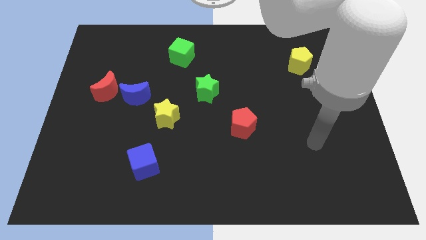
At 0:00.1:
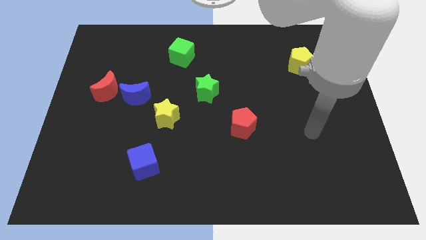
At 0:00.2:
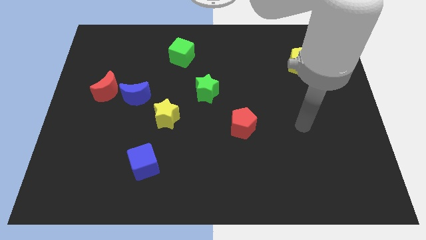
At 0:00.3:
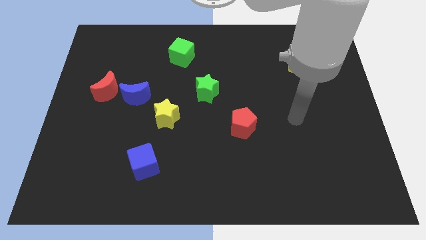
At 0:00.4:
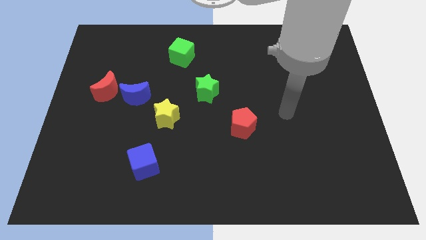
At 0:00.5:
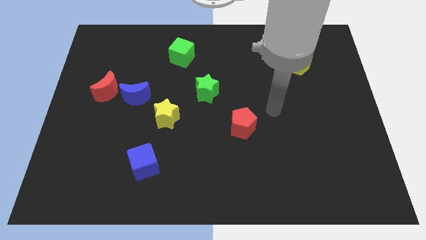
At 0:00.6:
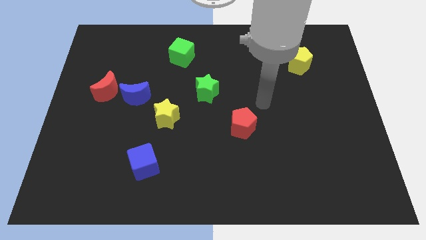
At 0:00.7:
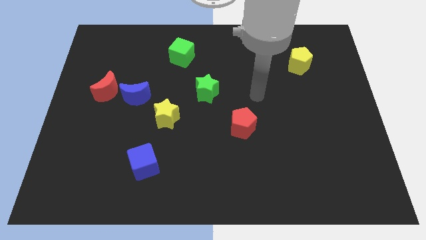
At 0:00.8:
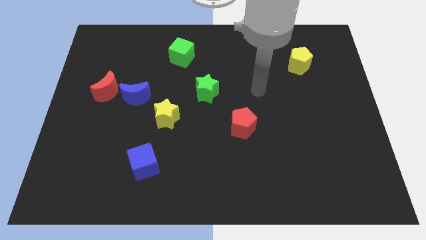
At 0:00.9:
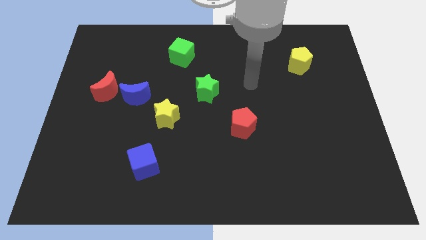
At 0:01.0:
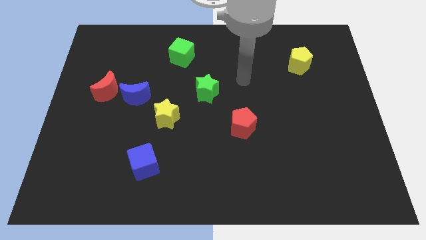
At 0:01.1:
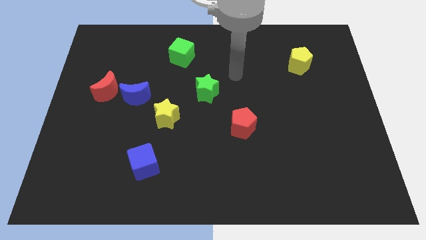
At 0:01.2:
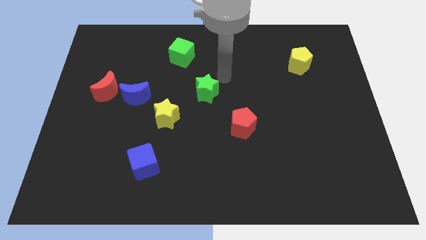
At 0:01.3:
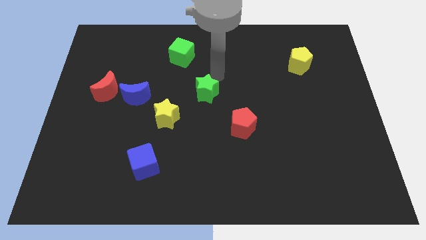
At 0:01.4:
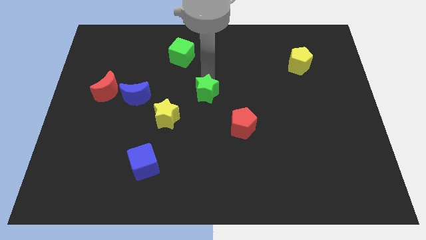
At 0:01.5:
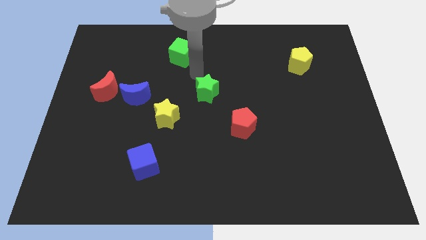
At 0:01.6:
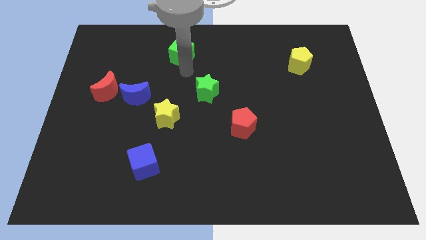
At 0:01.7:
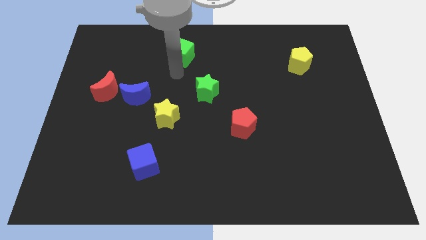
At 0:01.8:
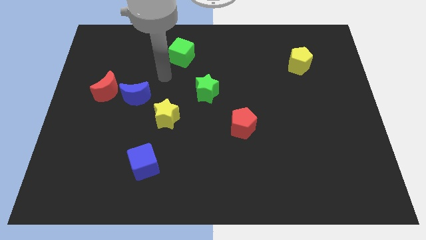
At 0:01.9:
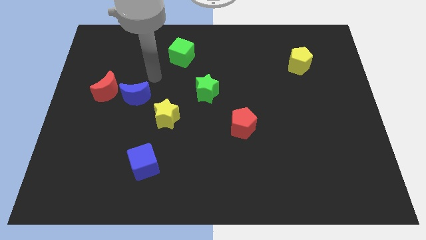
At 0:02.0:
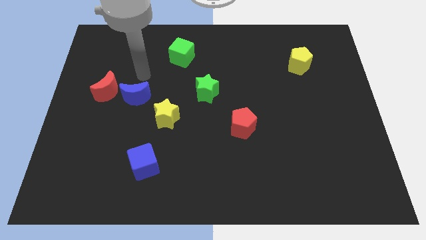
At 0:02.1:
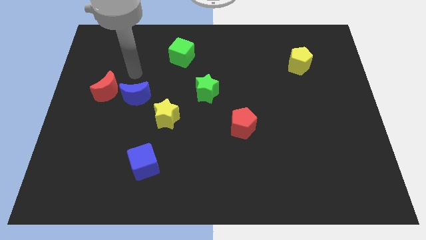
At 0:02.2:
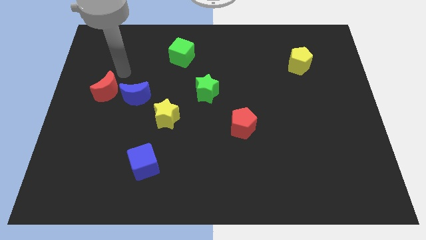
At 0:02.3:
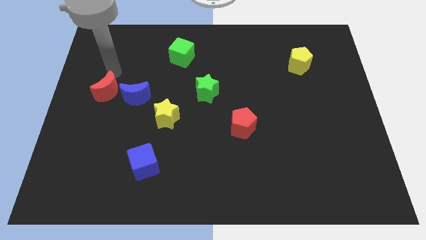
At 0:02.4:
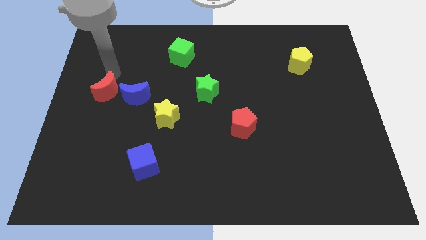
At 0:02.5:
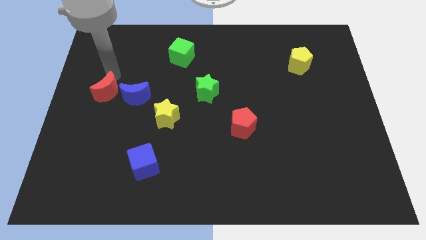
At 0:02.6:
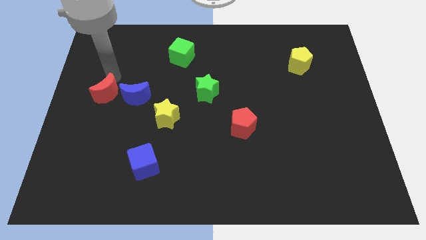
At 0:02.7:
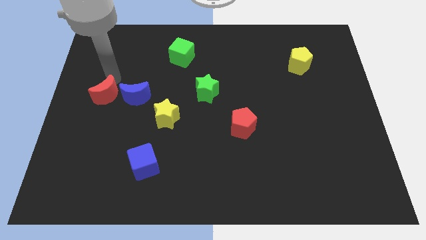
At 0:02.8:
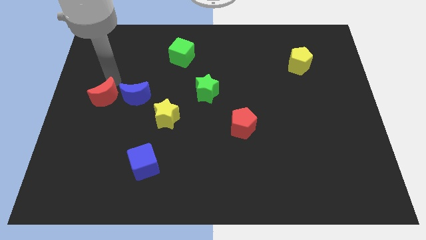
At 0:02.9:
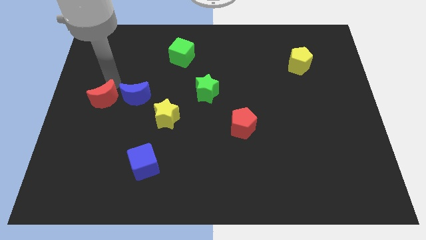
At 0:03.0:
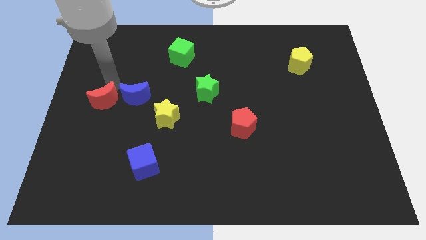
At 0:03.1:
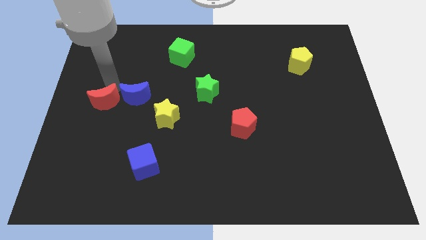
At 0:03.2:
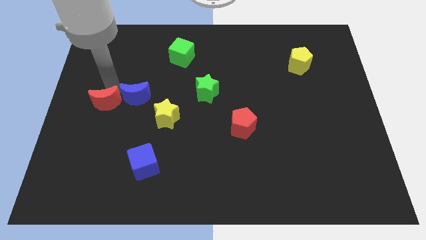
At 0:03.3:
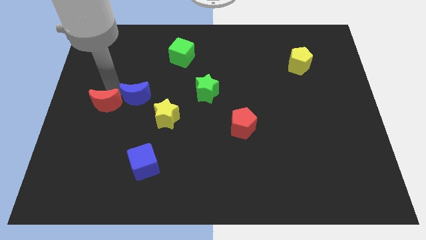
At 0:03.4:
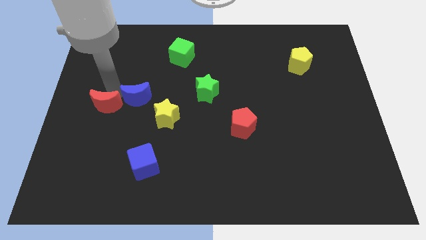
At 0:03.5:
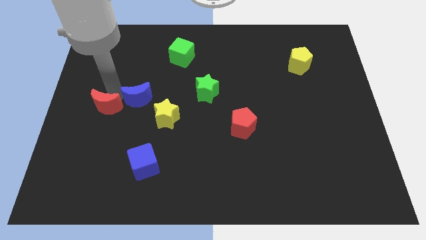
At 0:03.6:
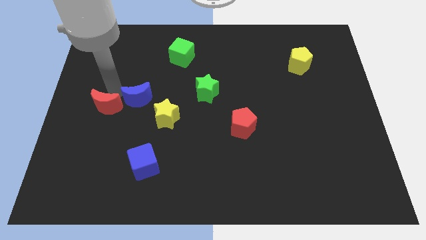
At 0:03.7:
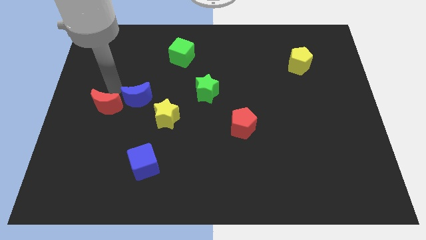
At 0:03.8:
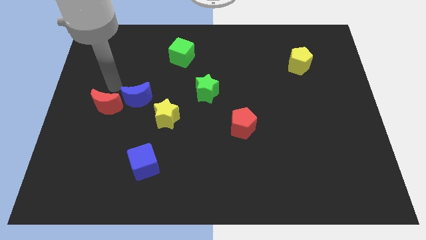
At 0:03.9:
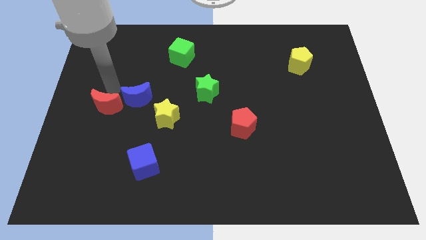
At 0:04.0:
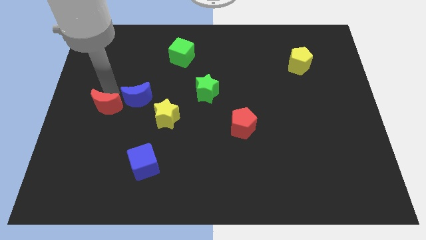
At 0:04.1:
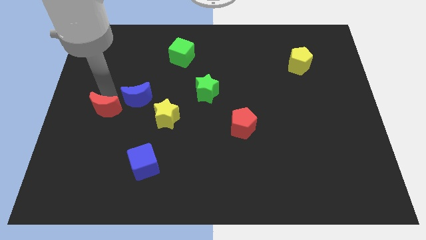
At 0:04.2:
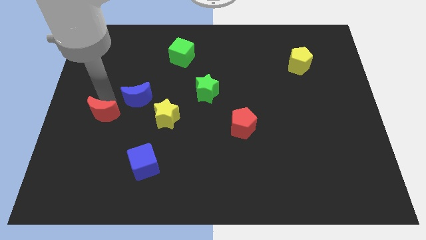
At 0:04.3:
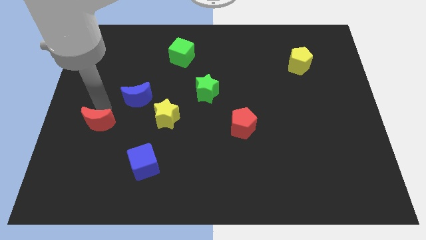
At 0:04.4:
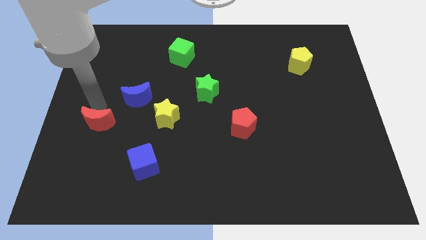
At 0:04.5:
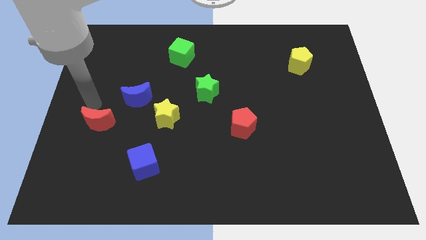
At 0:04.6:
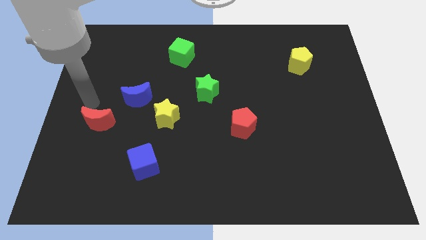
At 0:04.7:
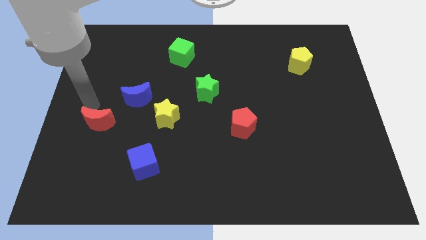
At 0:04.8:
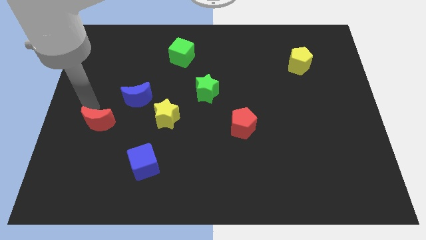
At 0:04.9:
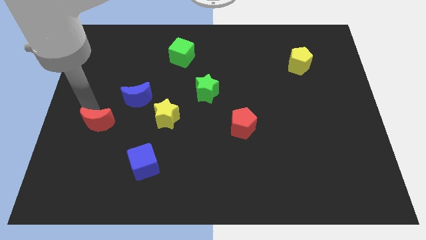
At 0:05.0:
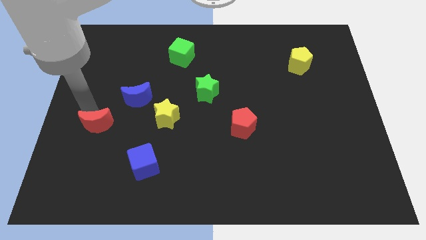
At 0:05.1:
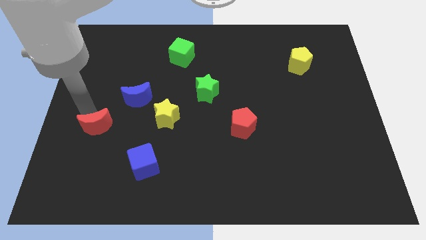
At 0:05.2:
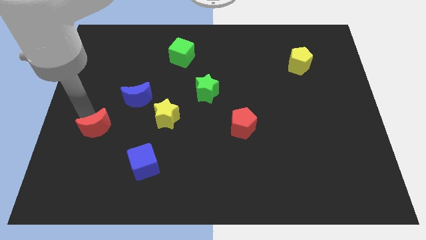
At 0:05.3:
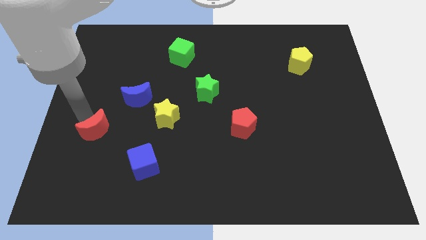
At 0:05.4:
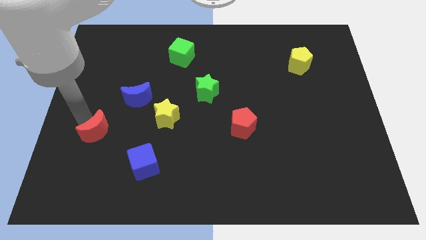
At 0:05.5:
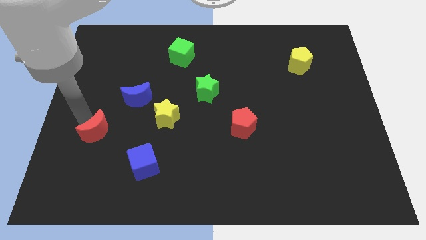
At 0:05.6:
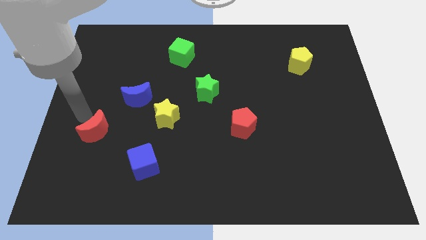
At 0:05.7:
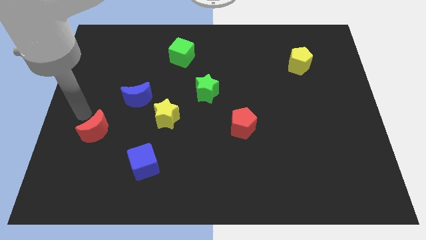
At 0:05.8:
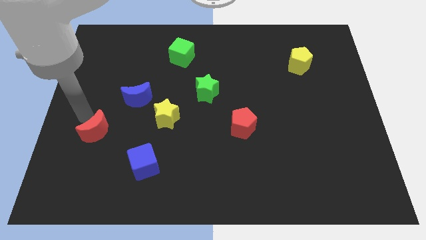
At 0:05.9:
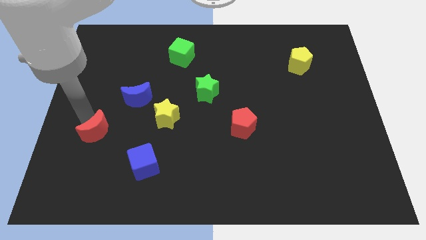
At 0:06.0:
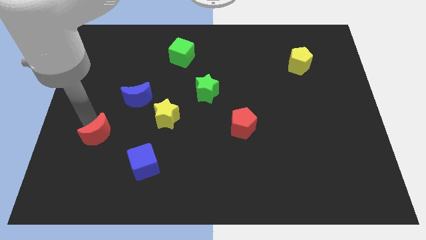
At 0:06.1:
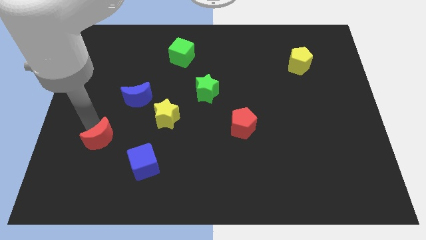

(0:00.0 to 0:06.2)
push the red moon slightly down and right

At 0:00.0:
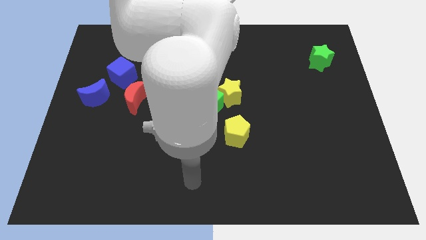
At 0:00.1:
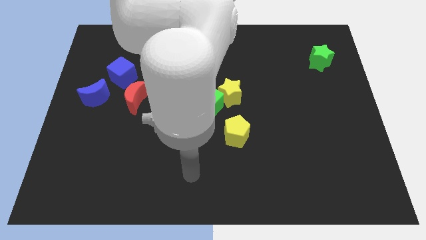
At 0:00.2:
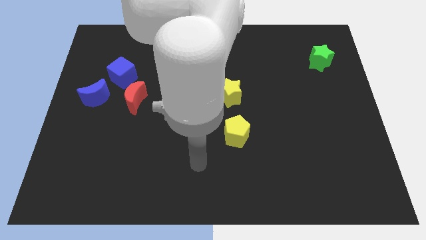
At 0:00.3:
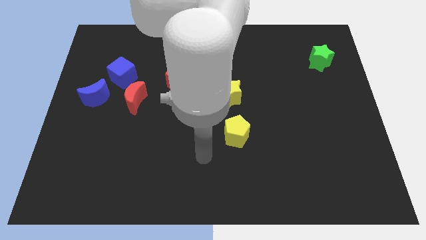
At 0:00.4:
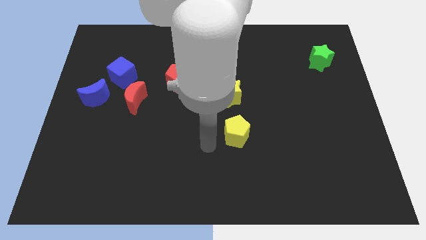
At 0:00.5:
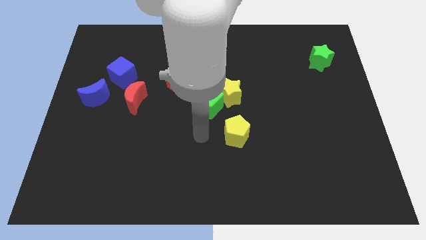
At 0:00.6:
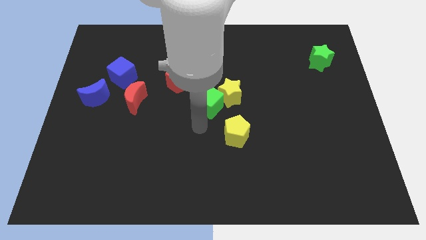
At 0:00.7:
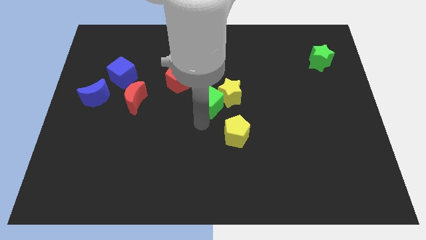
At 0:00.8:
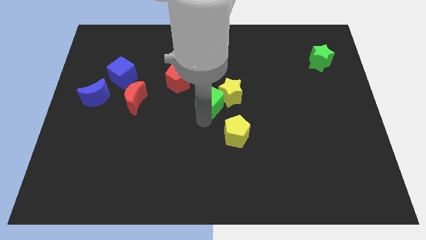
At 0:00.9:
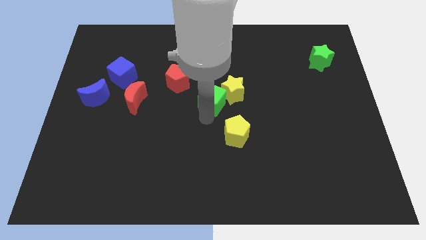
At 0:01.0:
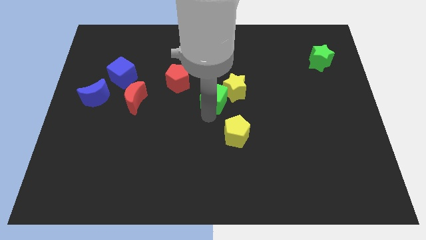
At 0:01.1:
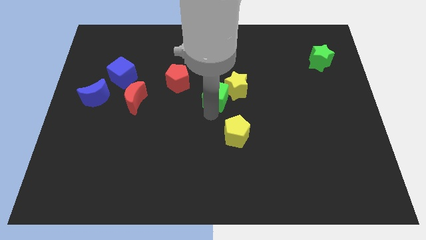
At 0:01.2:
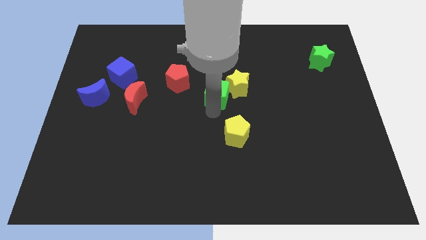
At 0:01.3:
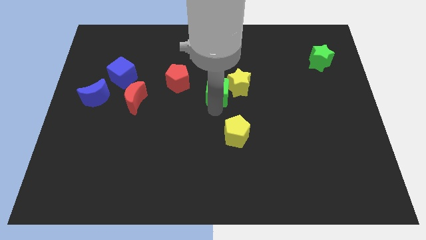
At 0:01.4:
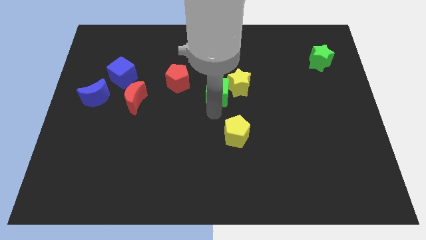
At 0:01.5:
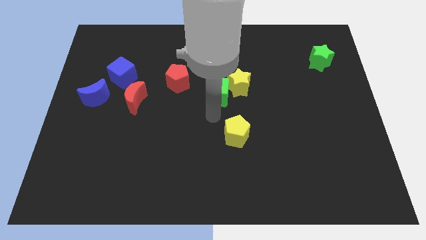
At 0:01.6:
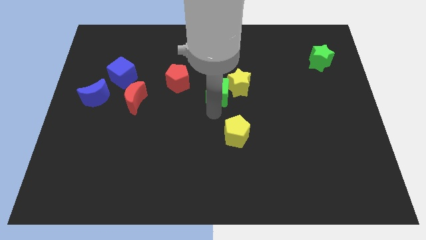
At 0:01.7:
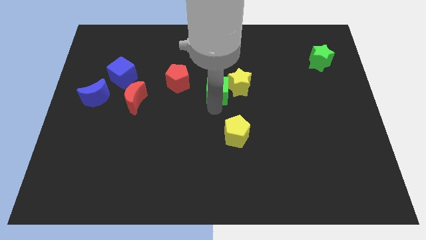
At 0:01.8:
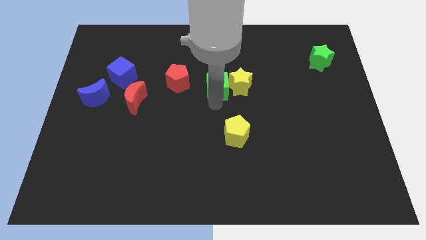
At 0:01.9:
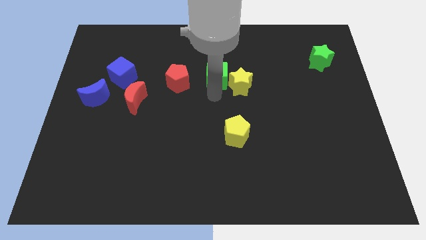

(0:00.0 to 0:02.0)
slightly move the green cube diagonally upwards and to the right
